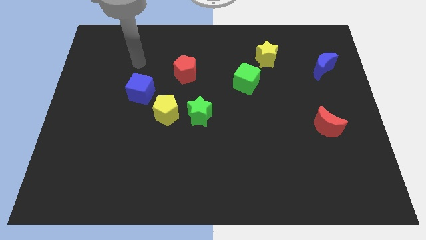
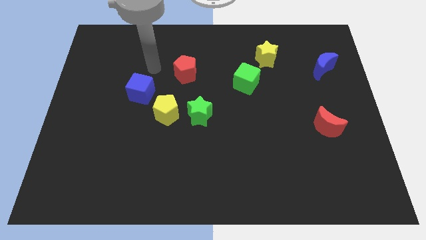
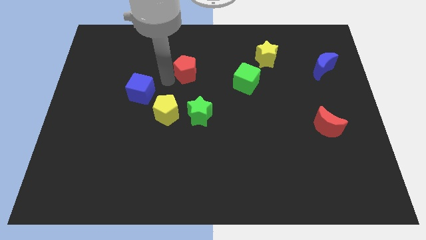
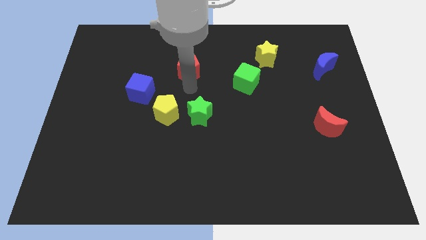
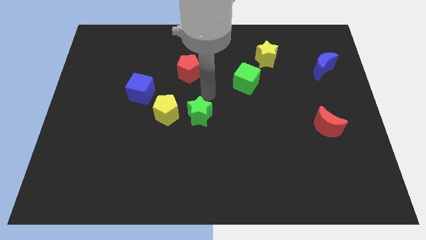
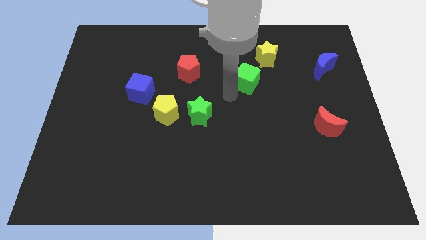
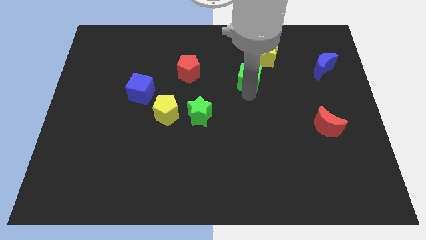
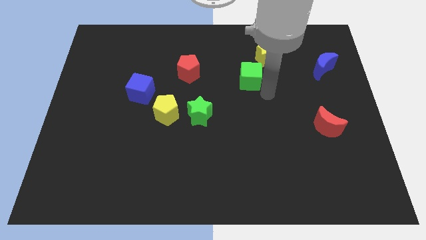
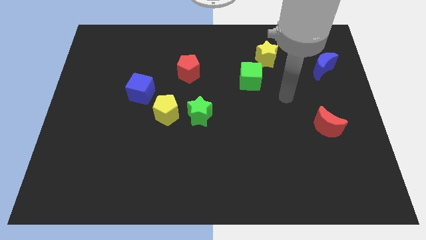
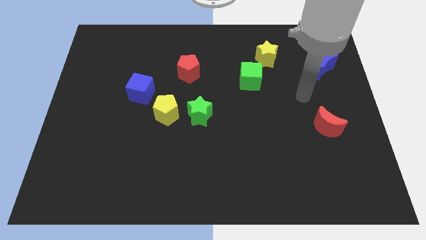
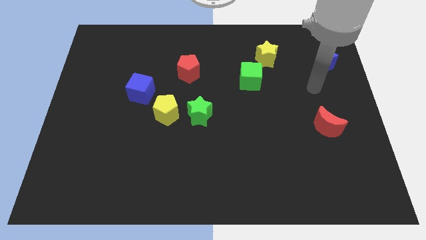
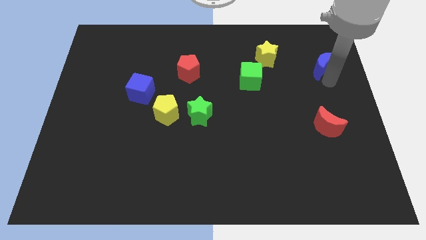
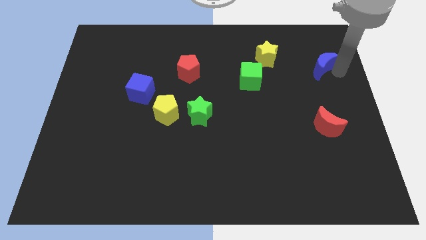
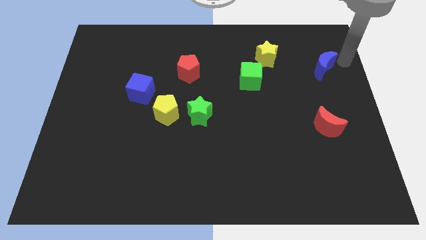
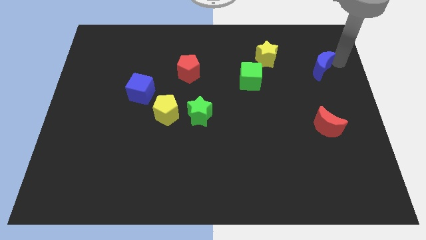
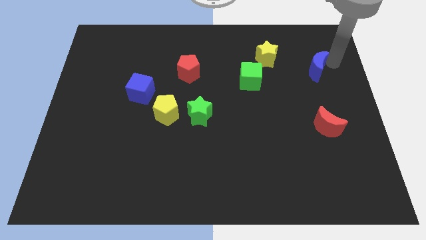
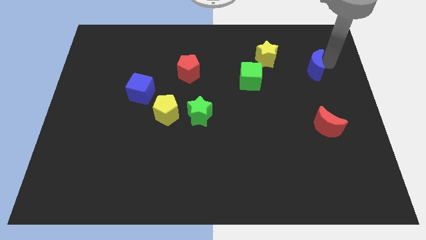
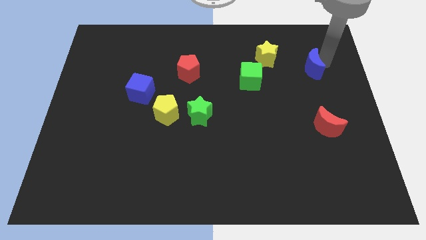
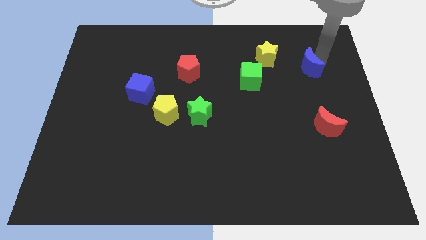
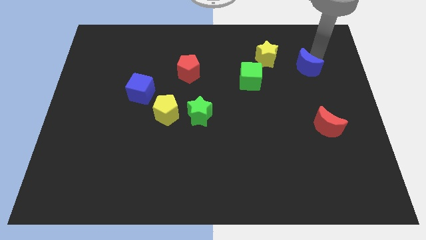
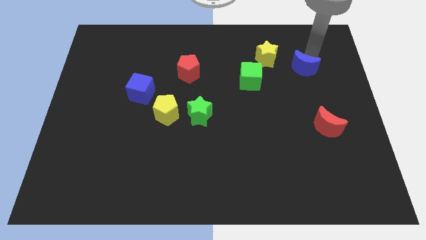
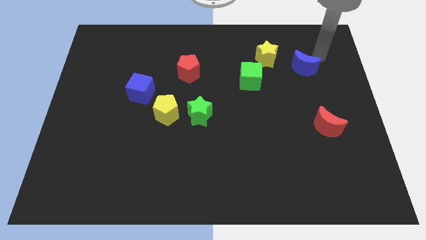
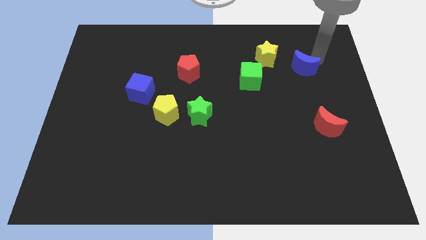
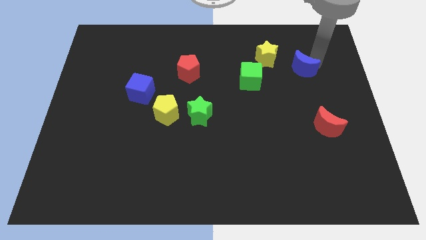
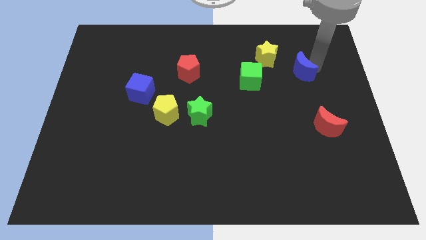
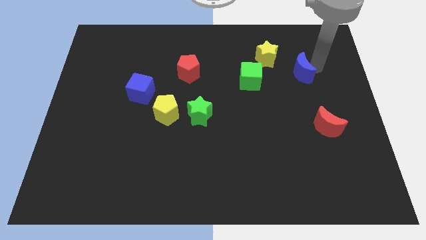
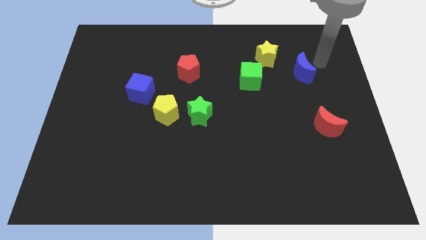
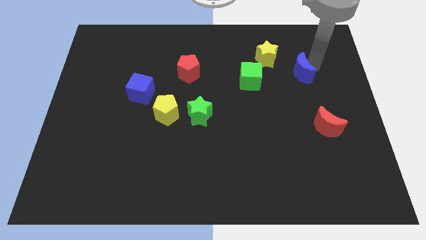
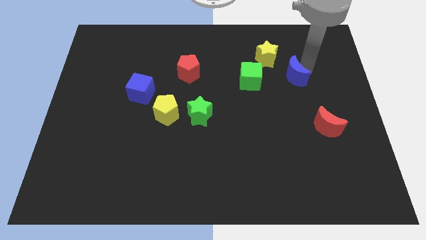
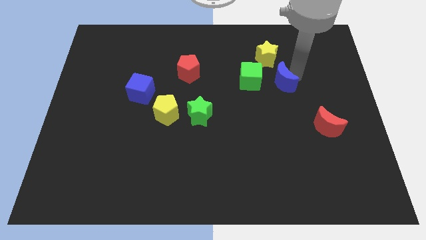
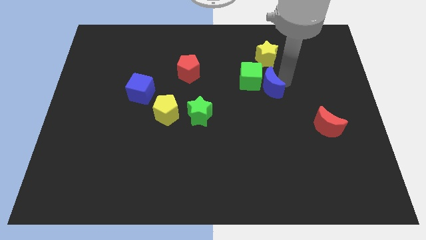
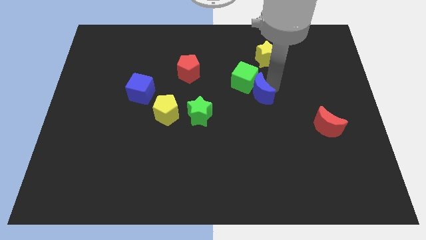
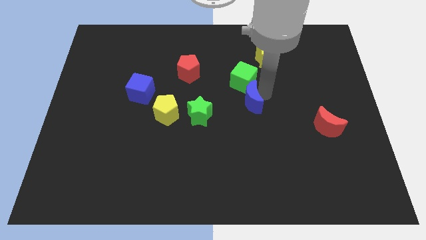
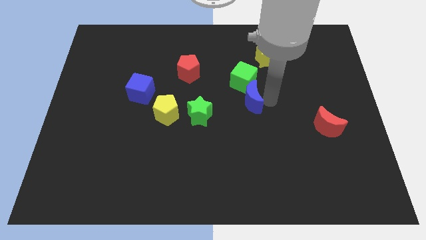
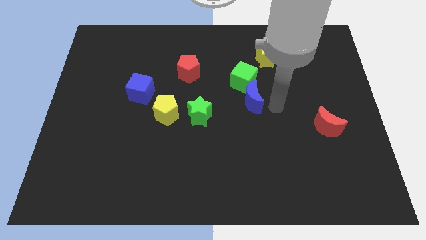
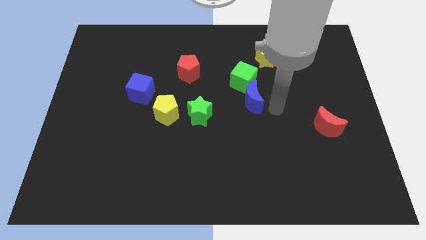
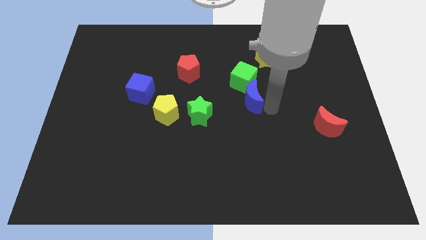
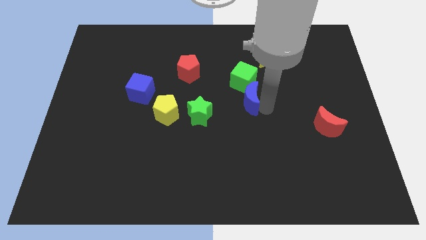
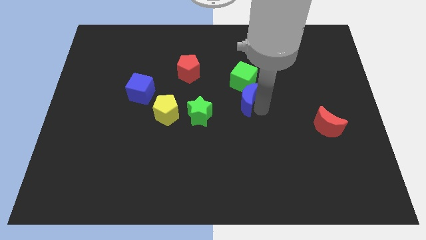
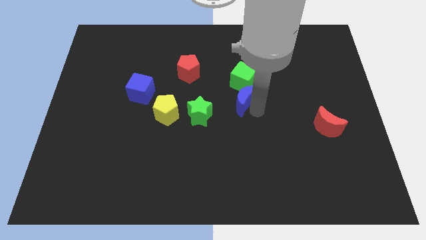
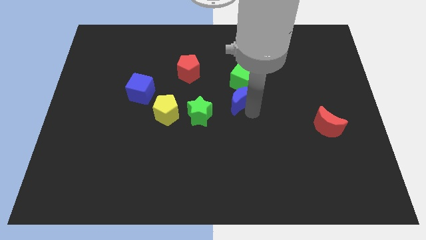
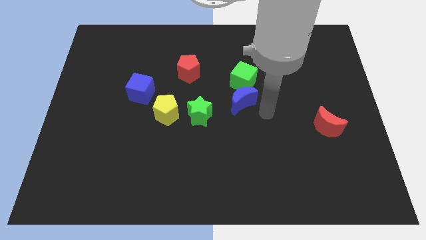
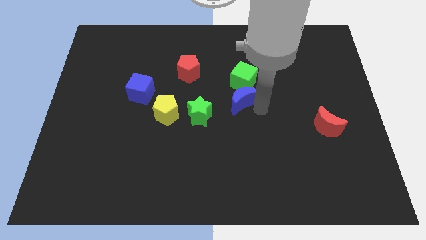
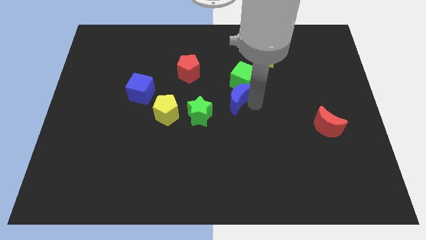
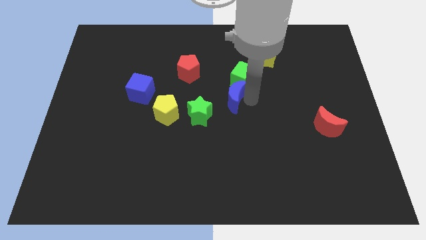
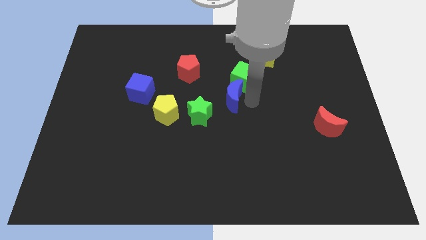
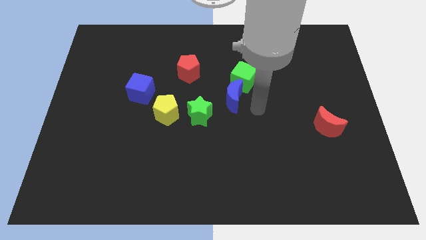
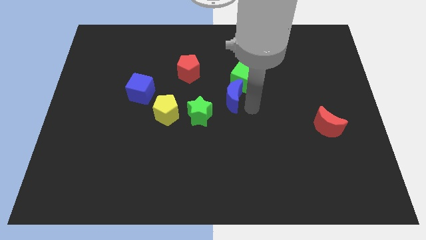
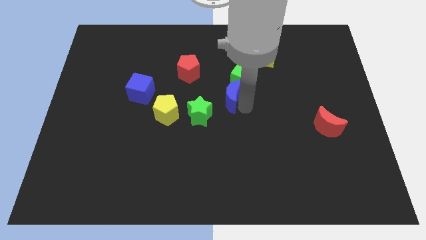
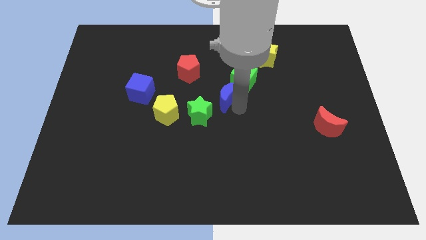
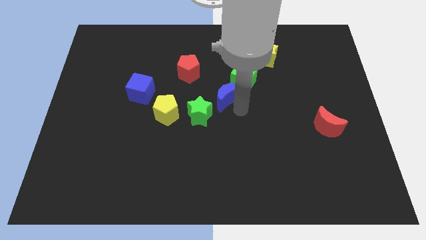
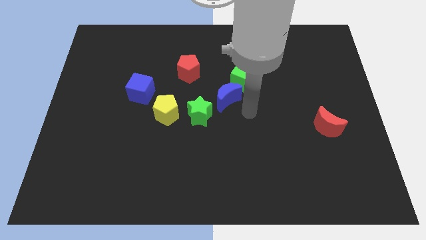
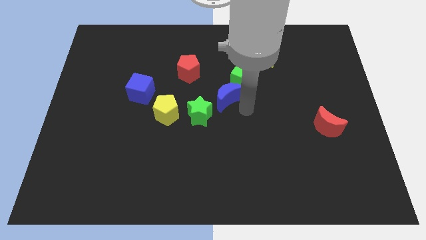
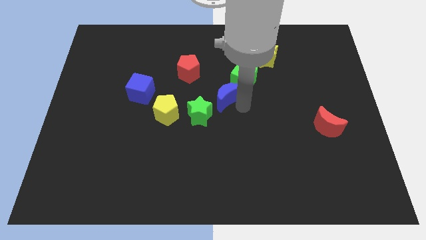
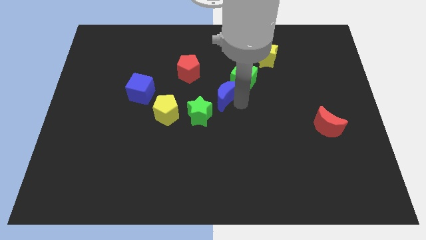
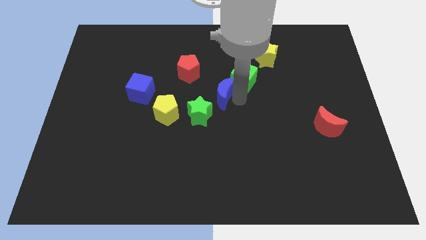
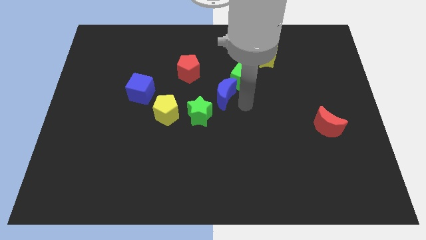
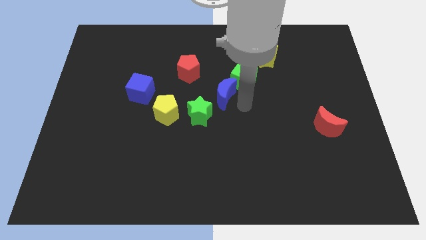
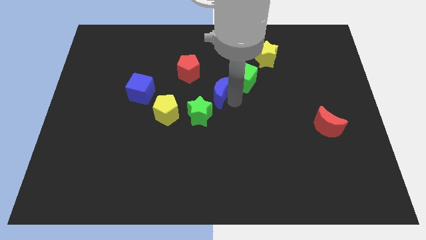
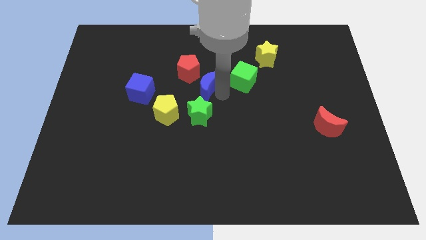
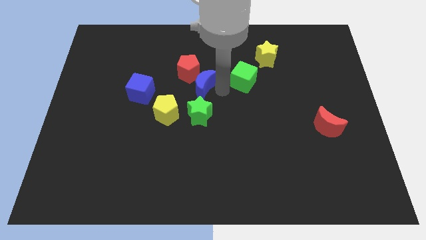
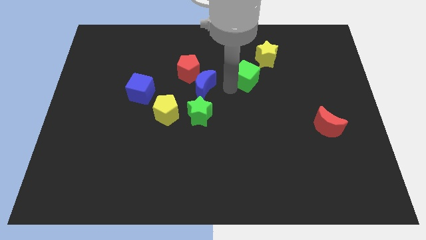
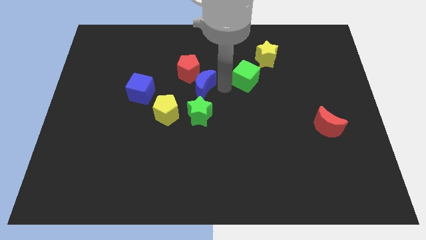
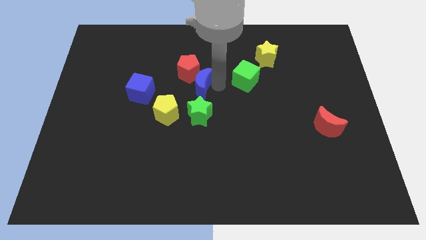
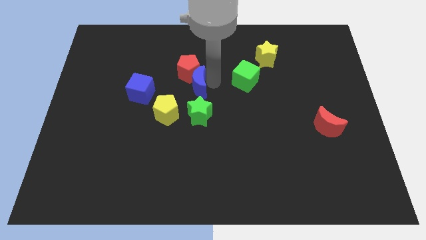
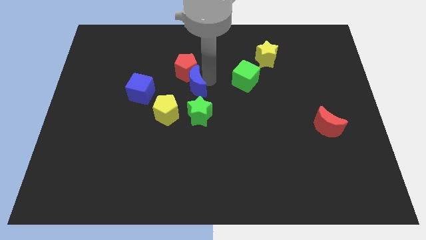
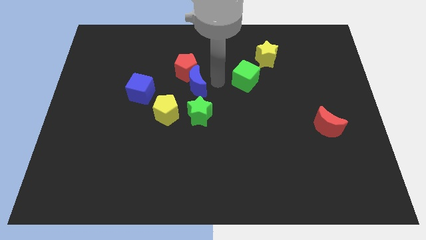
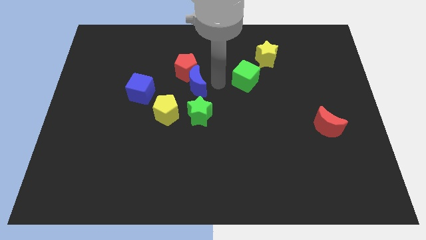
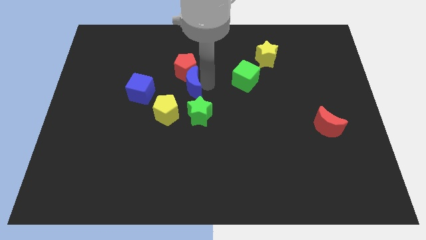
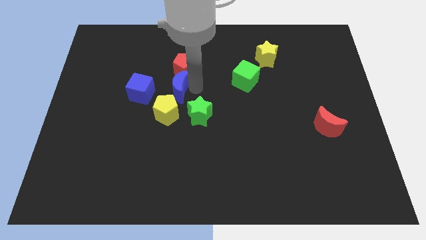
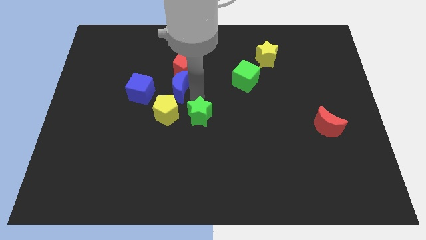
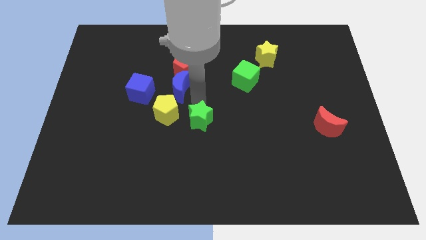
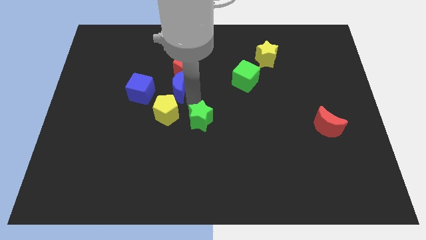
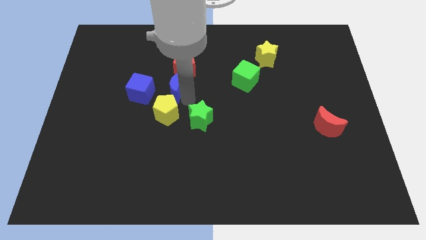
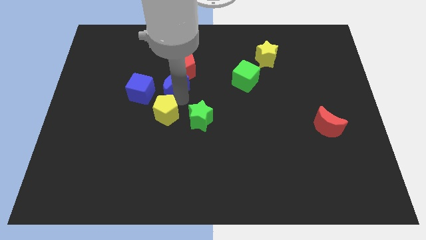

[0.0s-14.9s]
put the blue moon to the top right side of the blue cube

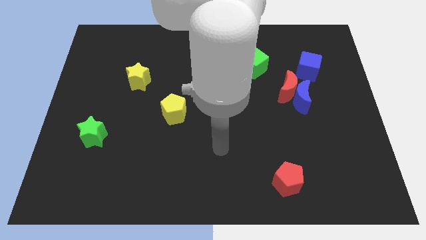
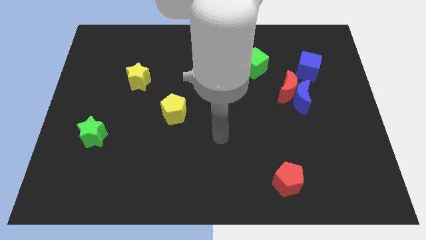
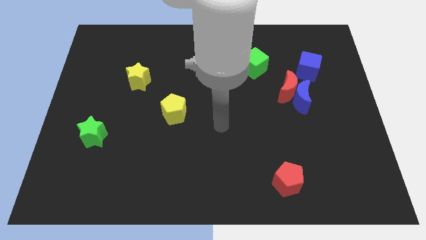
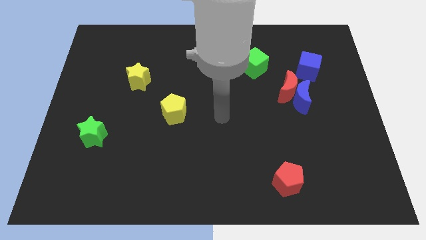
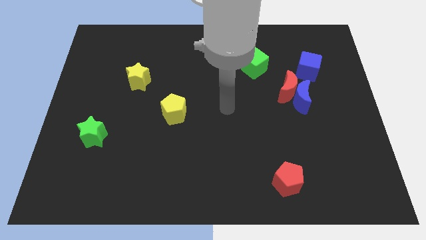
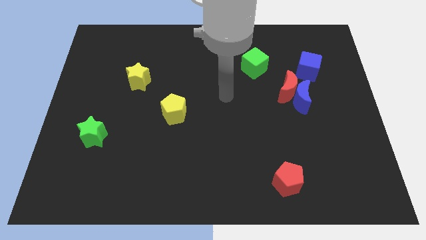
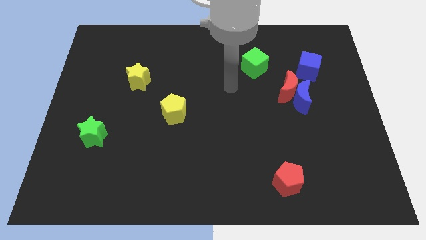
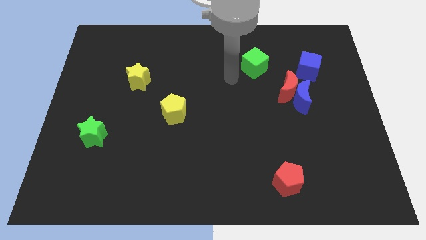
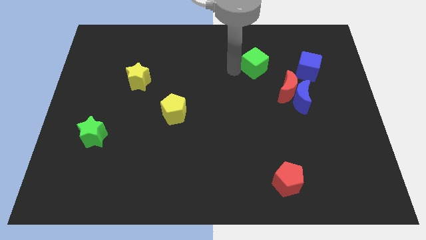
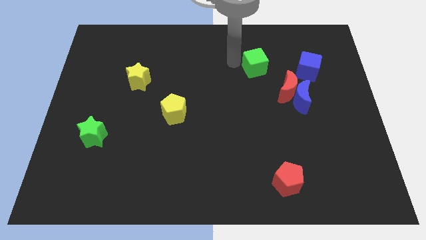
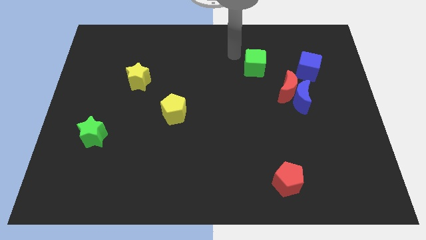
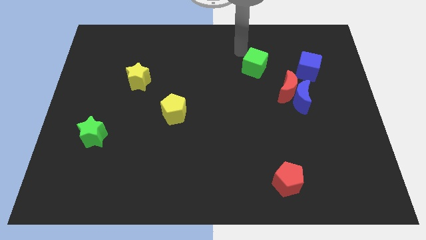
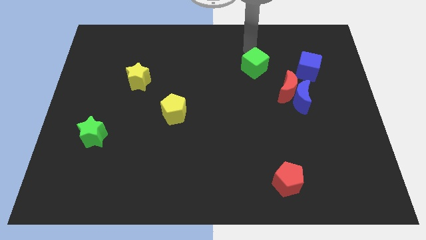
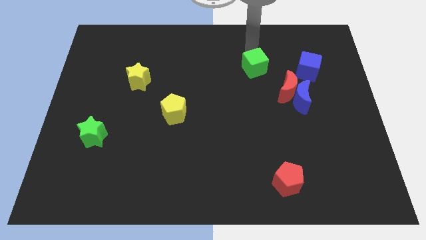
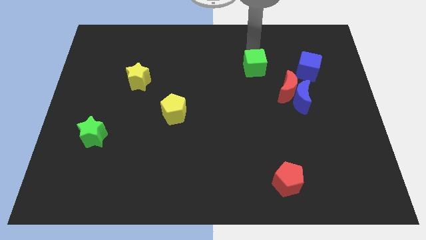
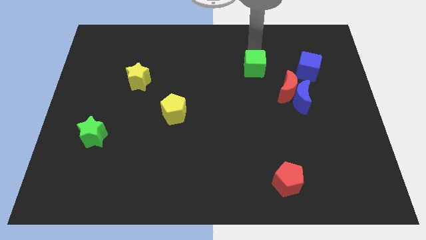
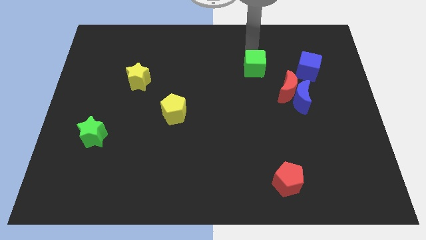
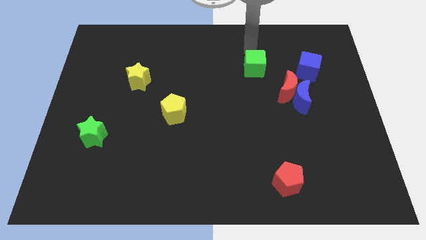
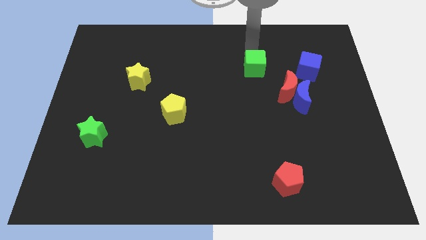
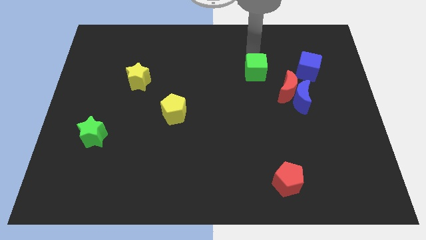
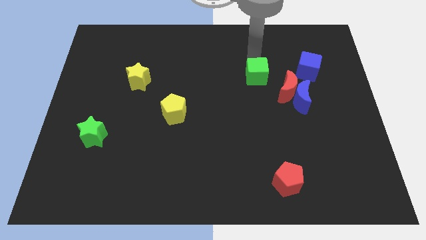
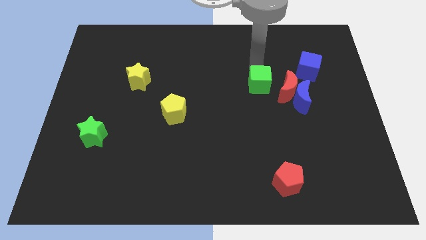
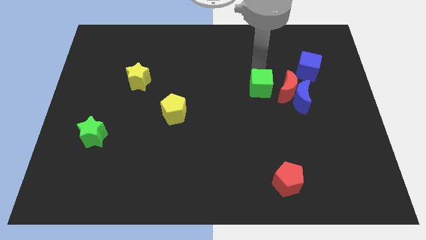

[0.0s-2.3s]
put the green cube to the left side of the blue moon
